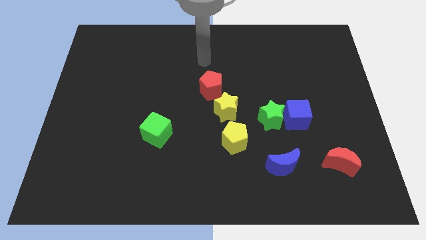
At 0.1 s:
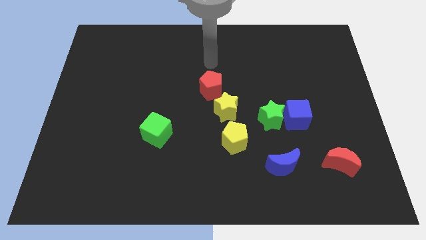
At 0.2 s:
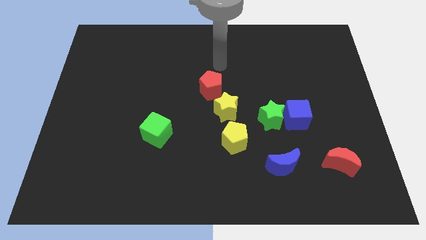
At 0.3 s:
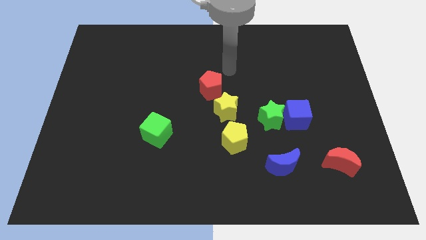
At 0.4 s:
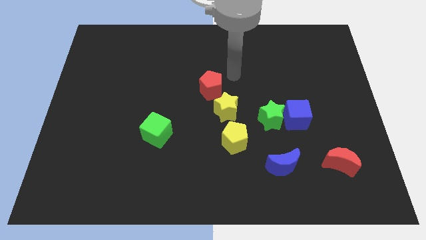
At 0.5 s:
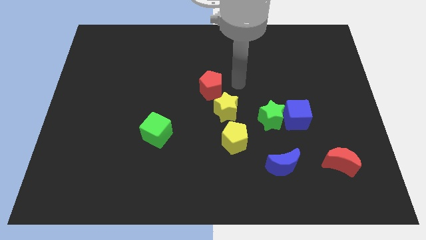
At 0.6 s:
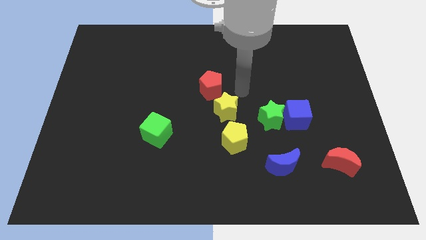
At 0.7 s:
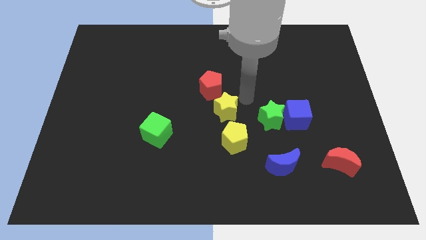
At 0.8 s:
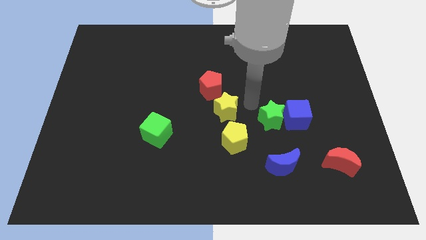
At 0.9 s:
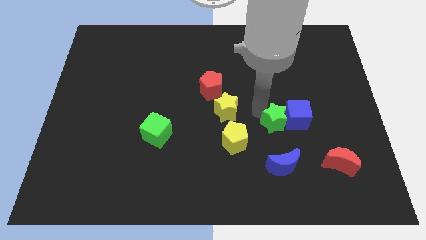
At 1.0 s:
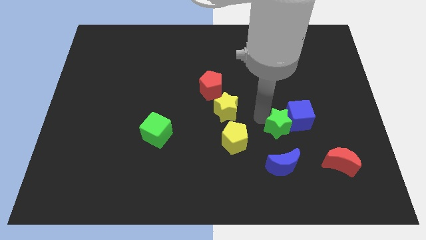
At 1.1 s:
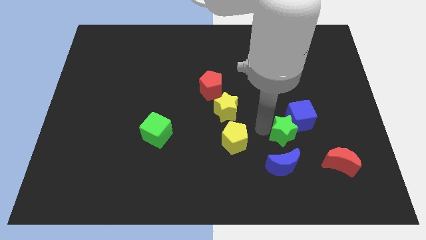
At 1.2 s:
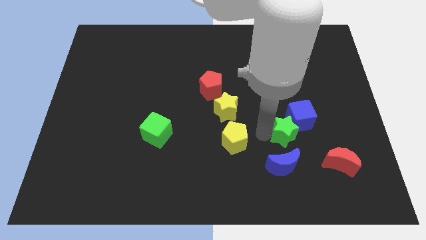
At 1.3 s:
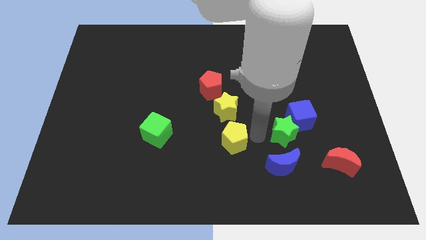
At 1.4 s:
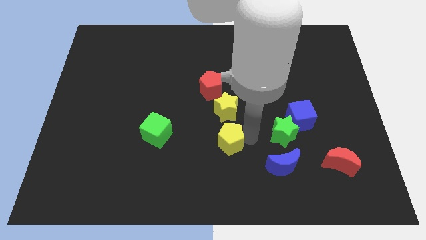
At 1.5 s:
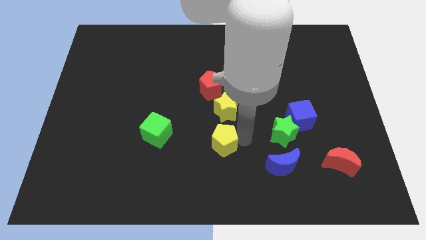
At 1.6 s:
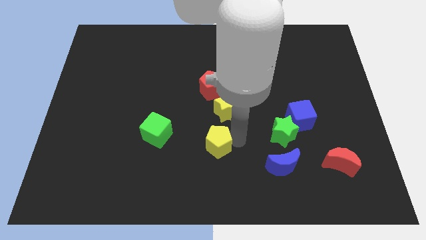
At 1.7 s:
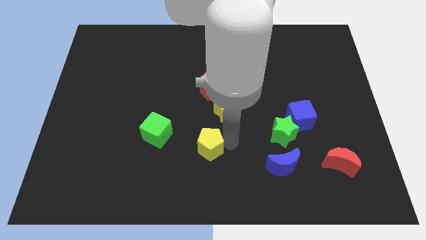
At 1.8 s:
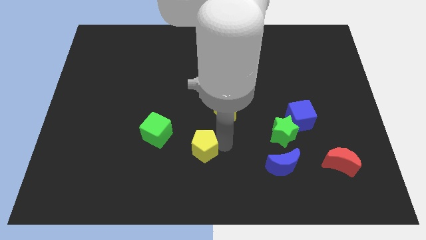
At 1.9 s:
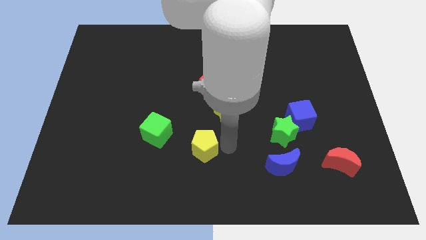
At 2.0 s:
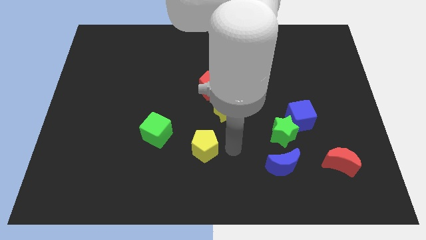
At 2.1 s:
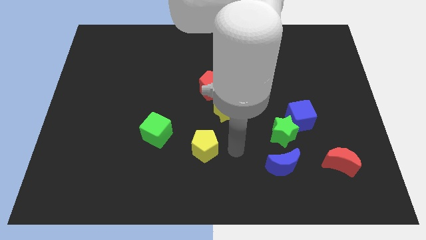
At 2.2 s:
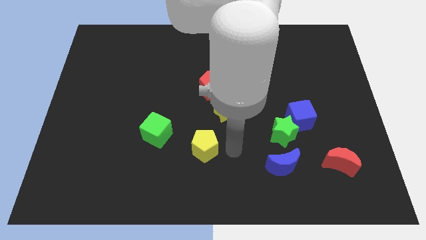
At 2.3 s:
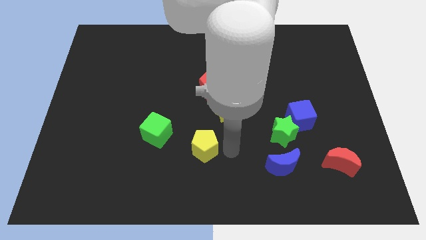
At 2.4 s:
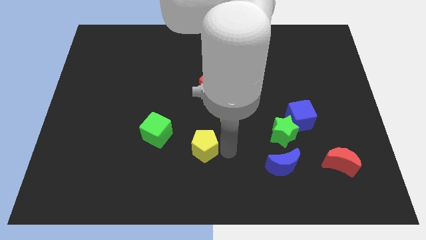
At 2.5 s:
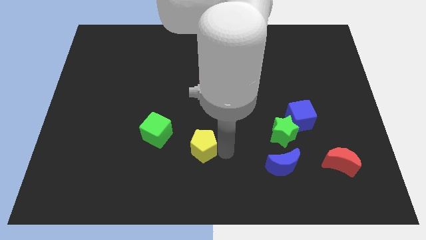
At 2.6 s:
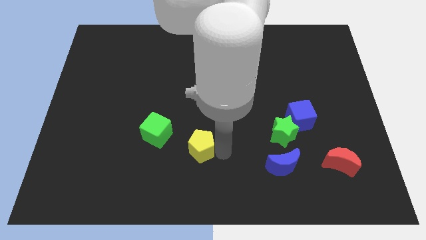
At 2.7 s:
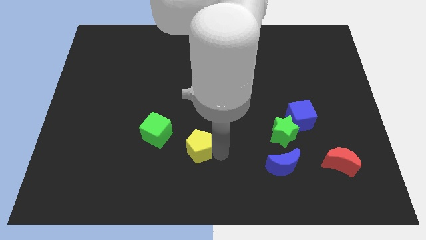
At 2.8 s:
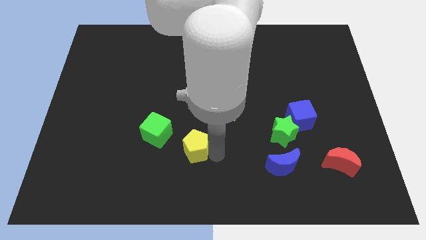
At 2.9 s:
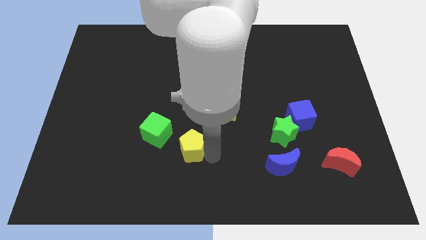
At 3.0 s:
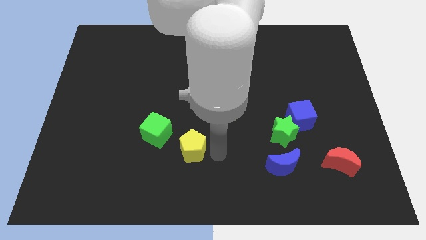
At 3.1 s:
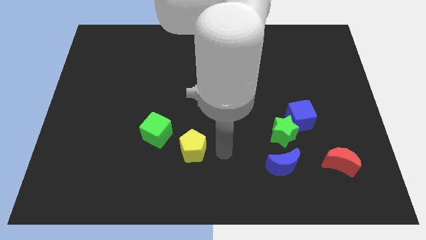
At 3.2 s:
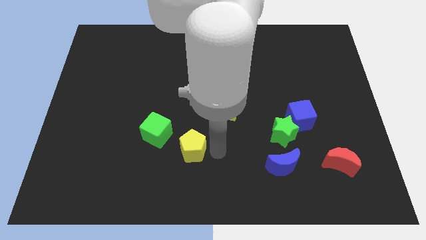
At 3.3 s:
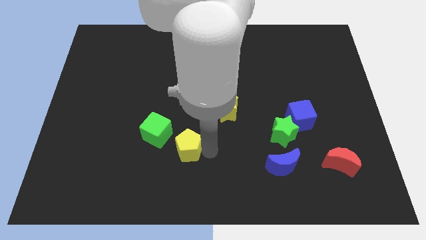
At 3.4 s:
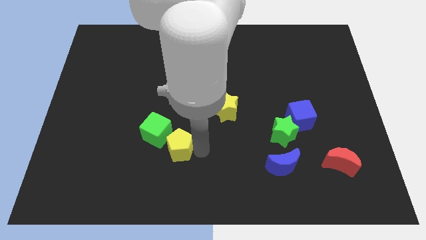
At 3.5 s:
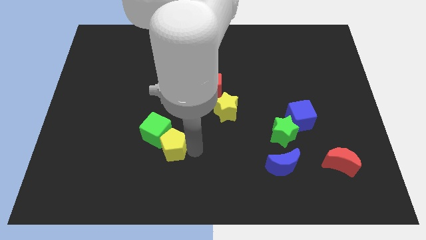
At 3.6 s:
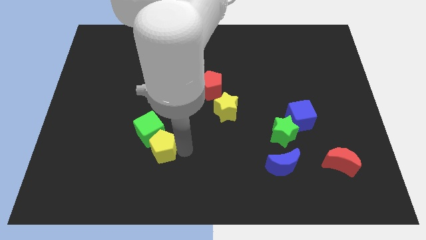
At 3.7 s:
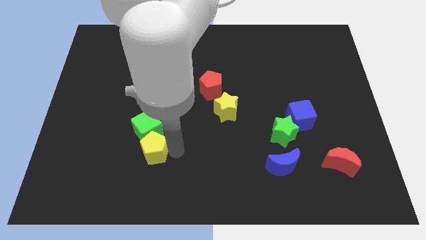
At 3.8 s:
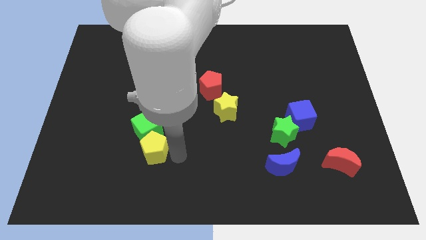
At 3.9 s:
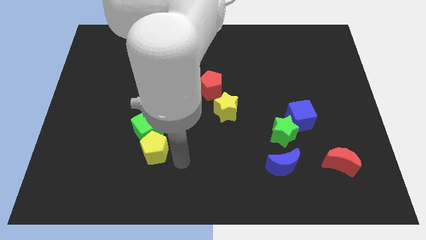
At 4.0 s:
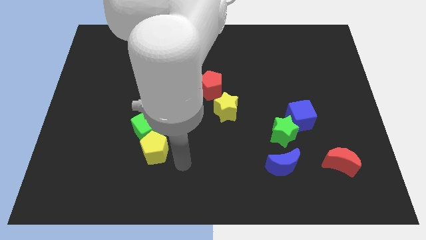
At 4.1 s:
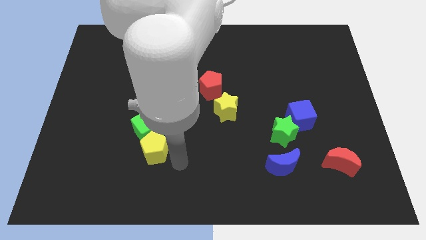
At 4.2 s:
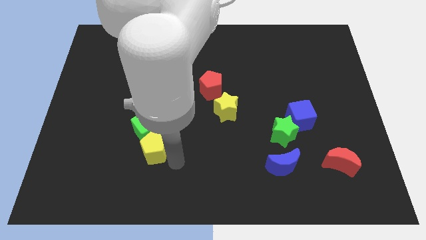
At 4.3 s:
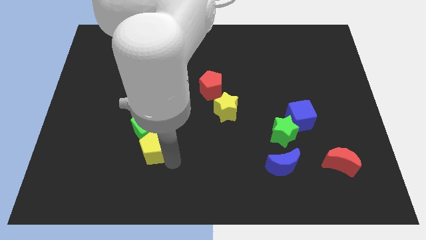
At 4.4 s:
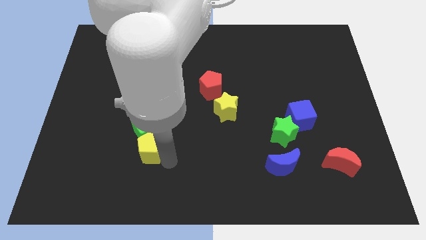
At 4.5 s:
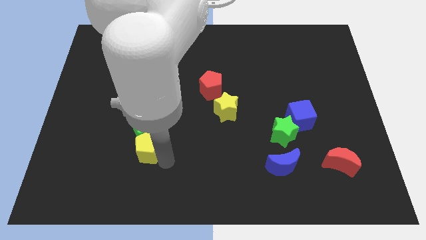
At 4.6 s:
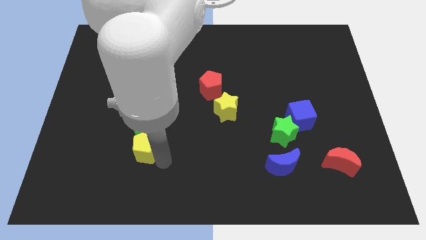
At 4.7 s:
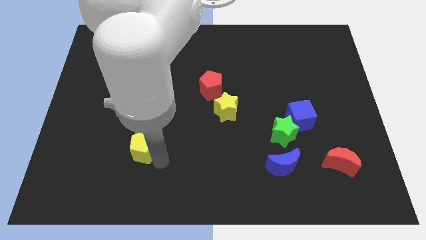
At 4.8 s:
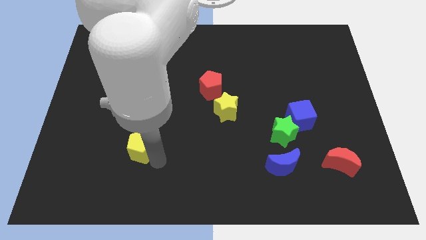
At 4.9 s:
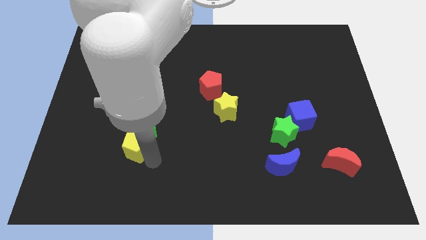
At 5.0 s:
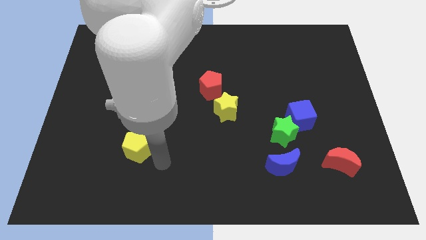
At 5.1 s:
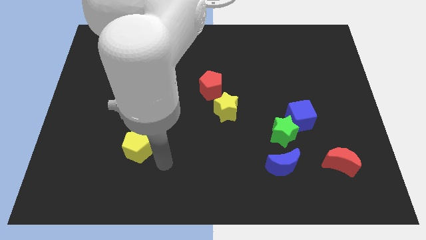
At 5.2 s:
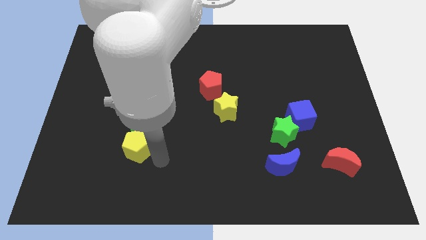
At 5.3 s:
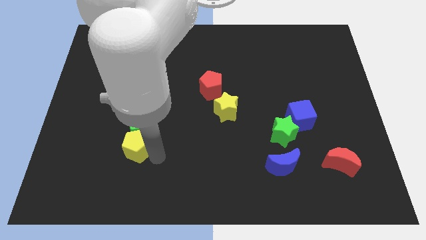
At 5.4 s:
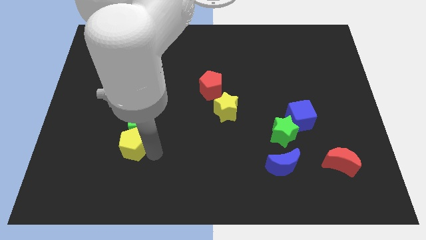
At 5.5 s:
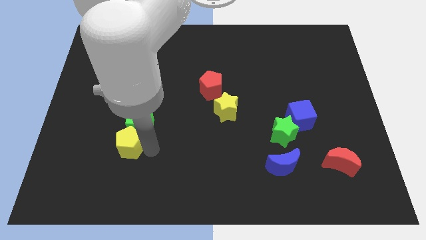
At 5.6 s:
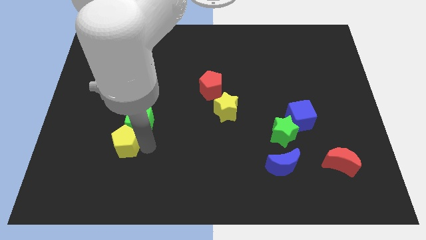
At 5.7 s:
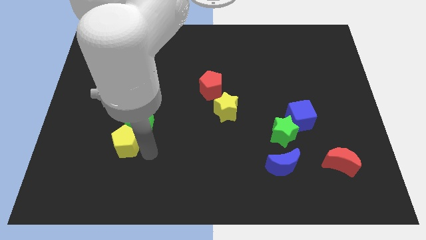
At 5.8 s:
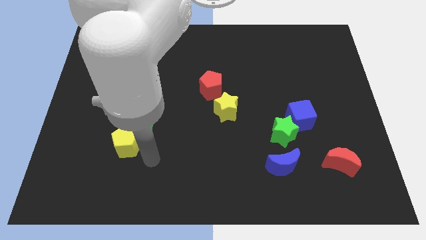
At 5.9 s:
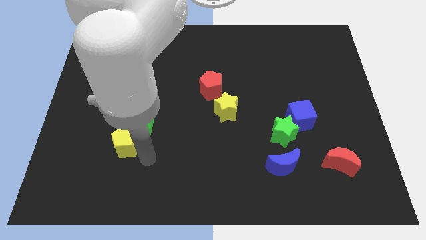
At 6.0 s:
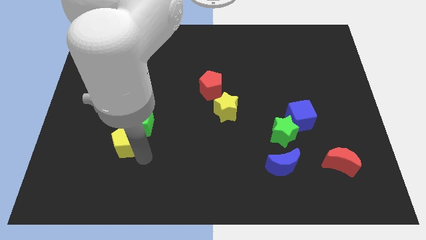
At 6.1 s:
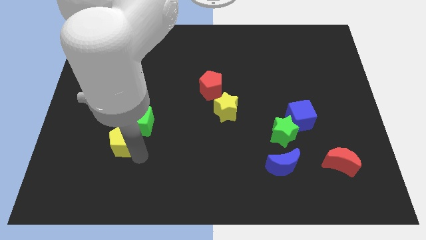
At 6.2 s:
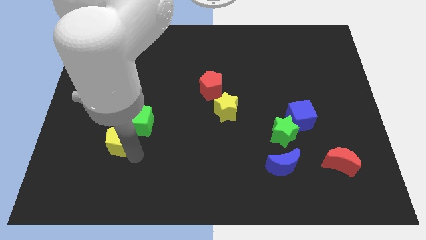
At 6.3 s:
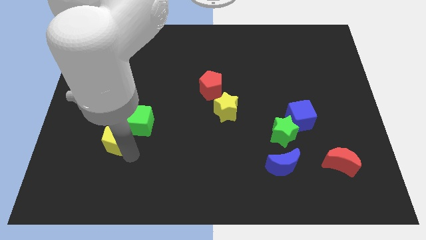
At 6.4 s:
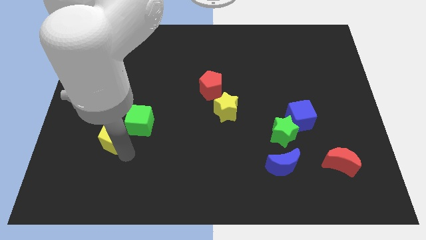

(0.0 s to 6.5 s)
put the yellow pentagon just left of the green cube
